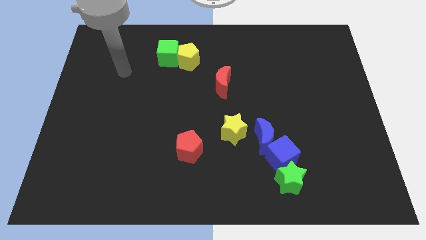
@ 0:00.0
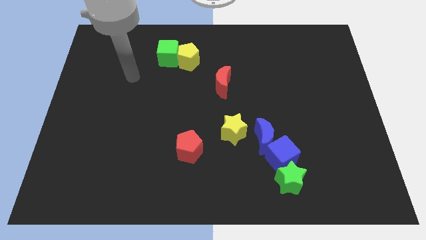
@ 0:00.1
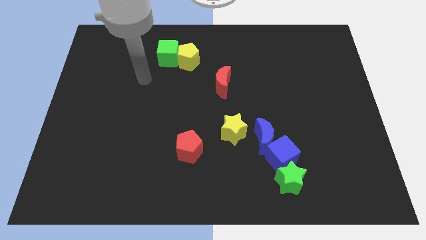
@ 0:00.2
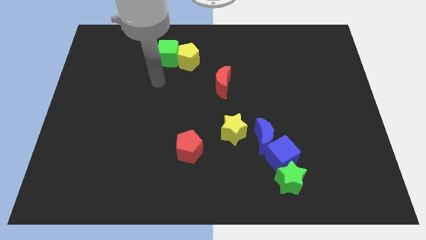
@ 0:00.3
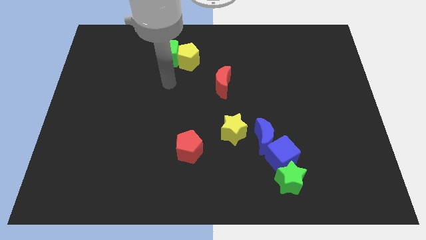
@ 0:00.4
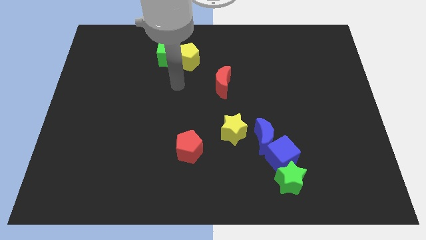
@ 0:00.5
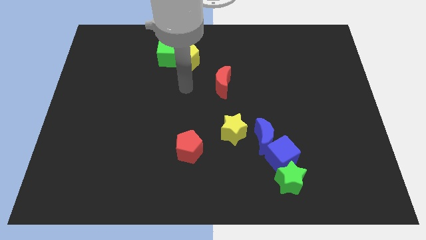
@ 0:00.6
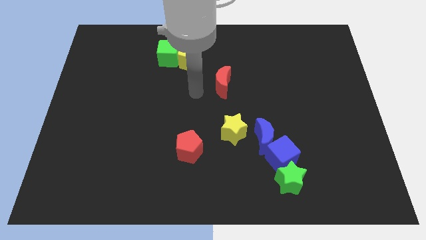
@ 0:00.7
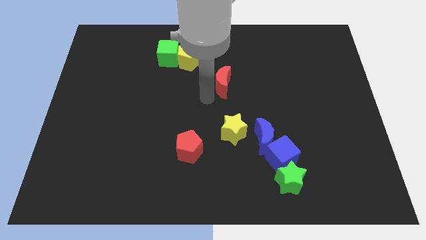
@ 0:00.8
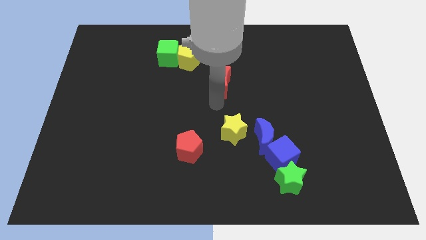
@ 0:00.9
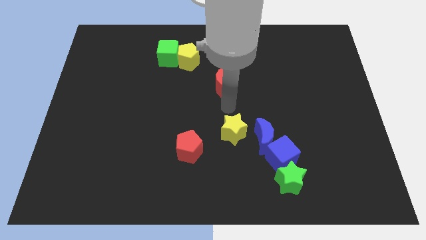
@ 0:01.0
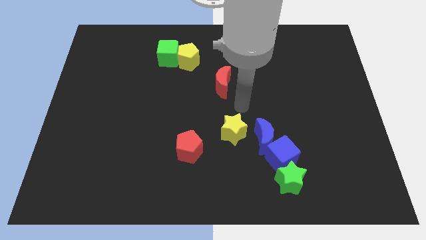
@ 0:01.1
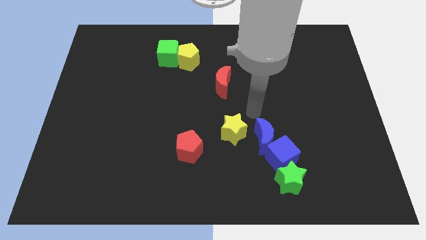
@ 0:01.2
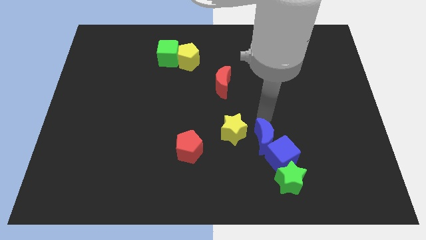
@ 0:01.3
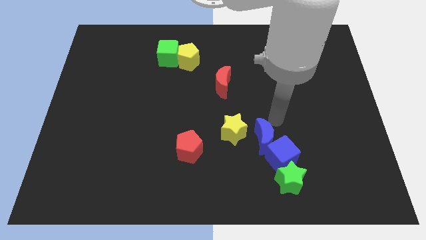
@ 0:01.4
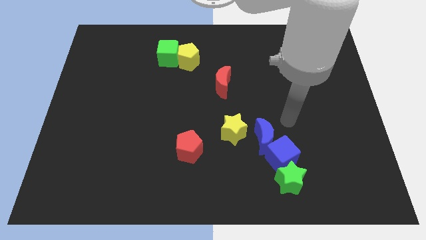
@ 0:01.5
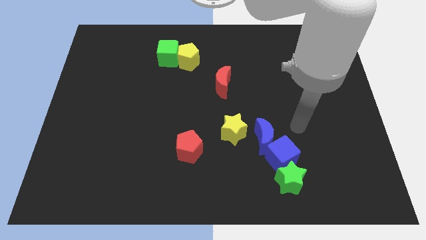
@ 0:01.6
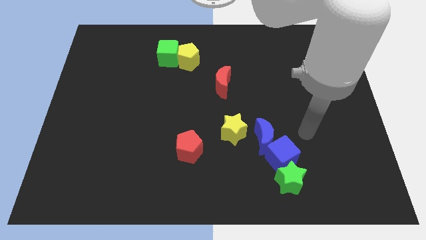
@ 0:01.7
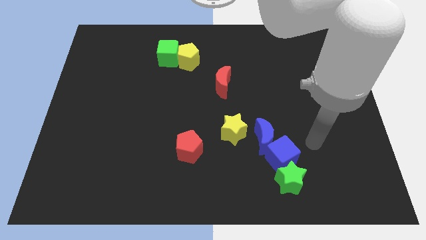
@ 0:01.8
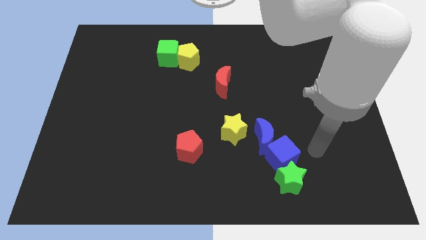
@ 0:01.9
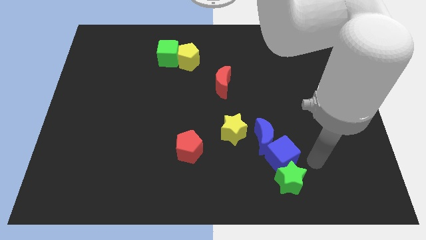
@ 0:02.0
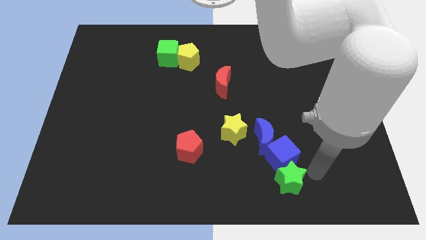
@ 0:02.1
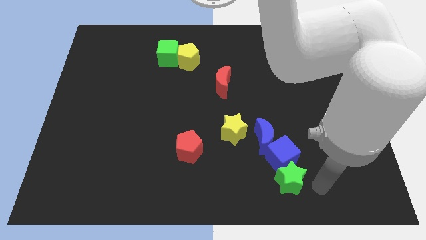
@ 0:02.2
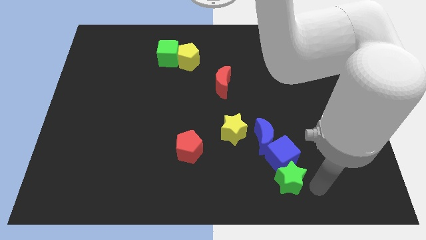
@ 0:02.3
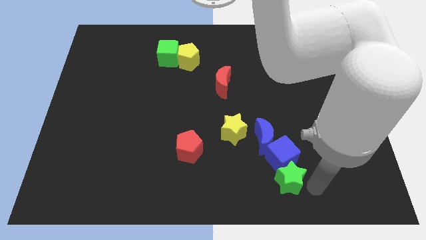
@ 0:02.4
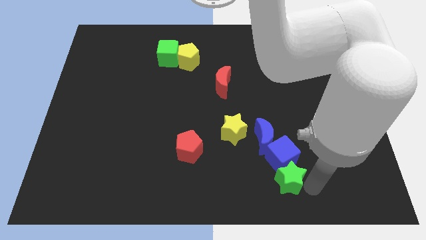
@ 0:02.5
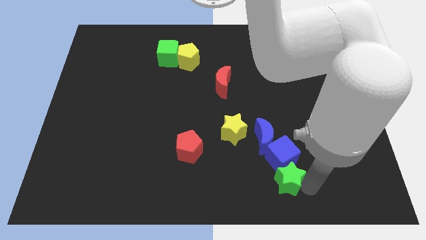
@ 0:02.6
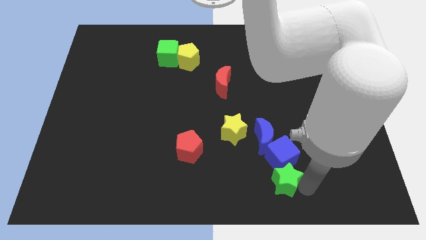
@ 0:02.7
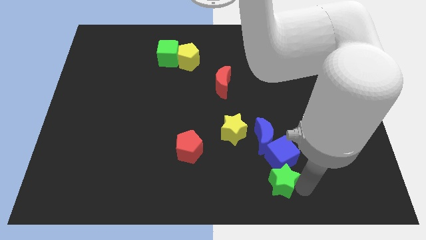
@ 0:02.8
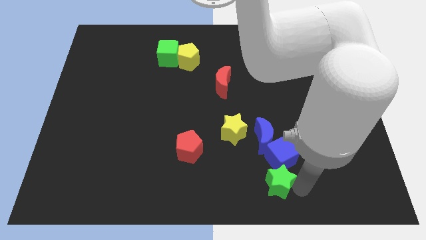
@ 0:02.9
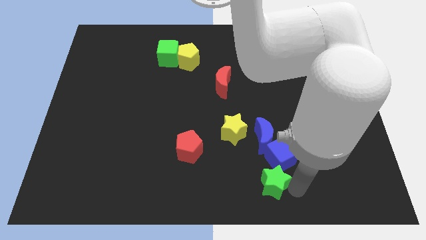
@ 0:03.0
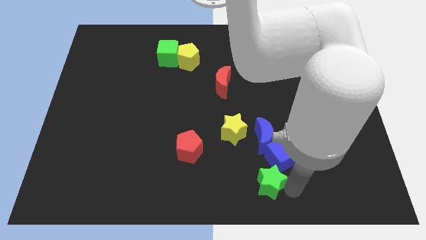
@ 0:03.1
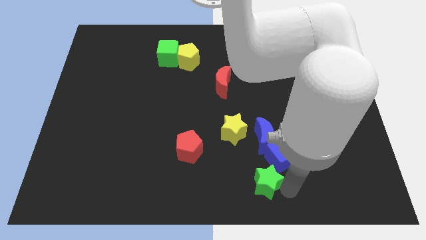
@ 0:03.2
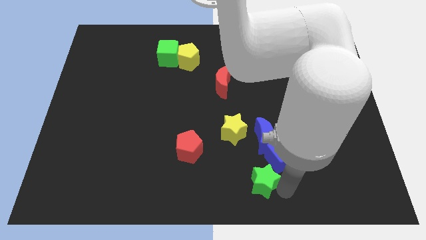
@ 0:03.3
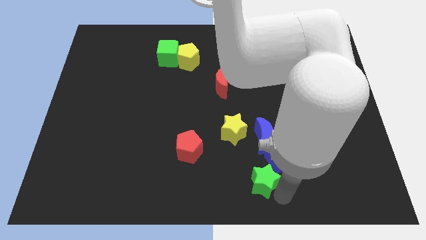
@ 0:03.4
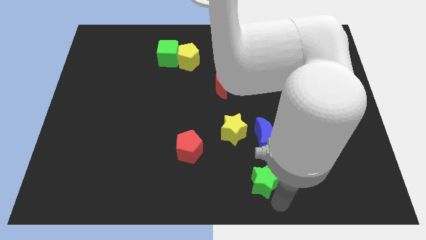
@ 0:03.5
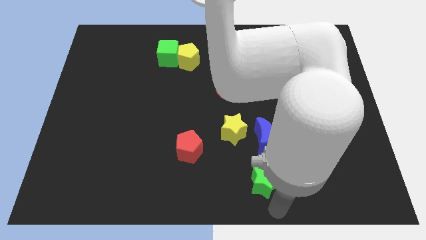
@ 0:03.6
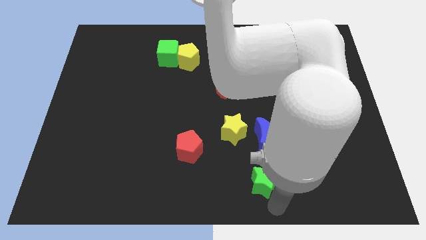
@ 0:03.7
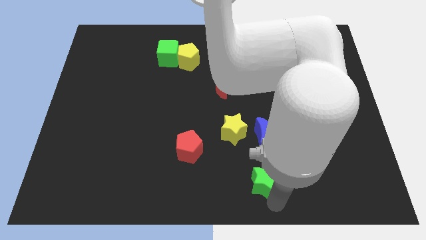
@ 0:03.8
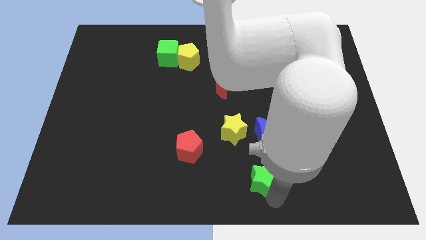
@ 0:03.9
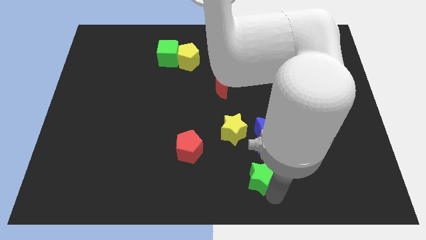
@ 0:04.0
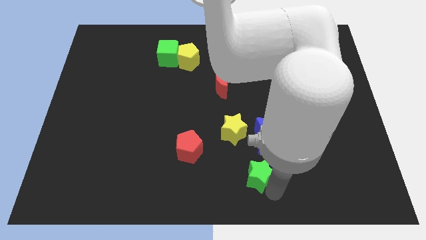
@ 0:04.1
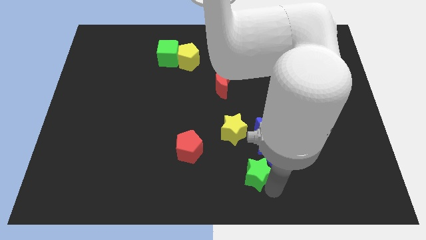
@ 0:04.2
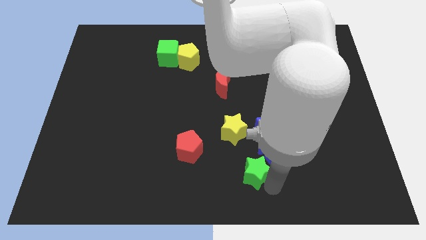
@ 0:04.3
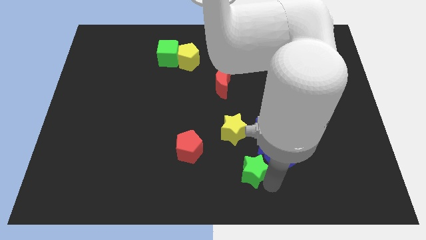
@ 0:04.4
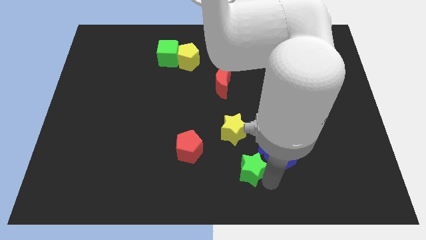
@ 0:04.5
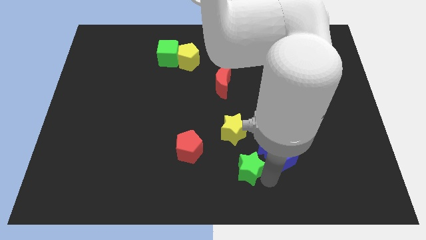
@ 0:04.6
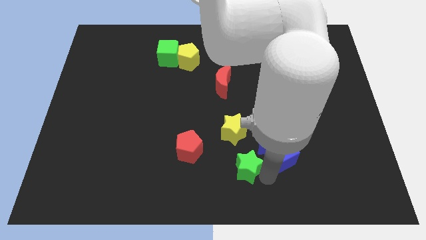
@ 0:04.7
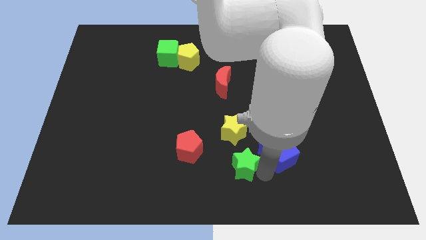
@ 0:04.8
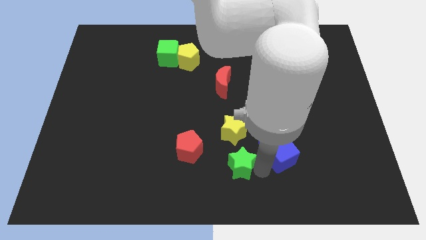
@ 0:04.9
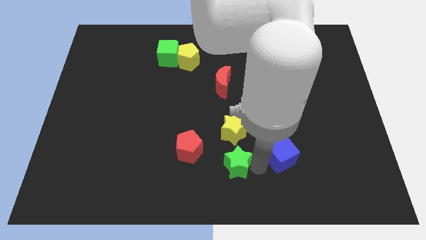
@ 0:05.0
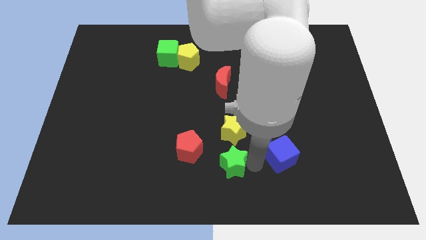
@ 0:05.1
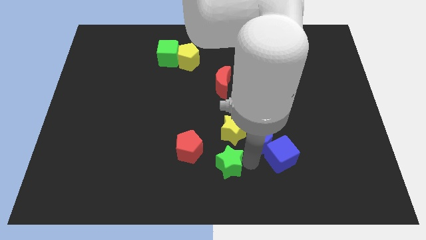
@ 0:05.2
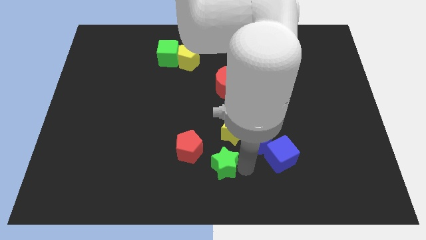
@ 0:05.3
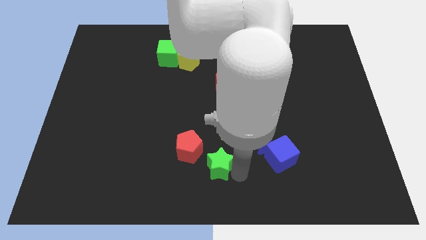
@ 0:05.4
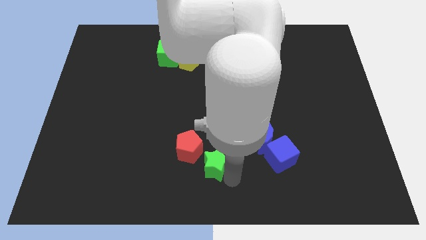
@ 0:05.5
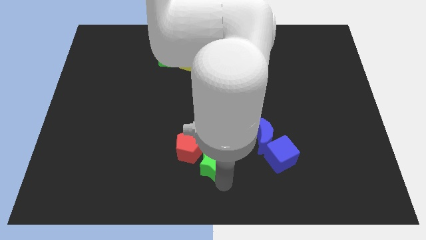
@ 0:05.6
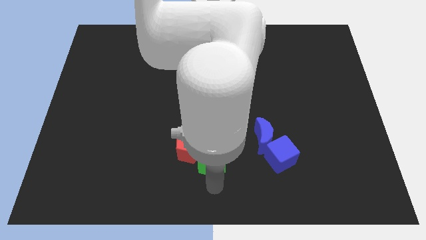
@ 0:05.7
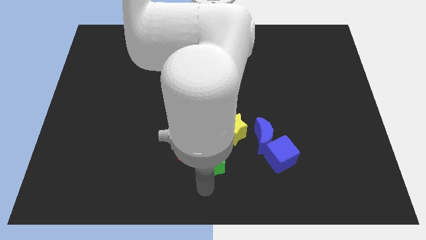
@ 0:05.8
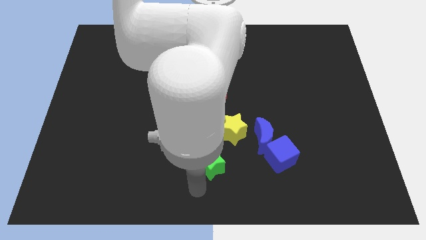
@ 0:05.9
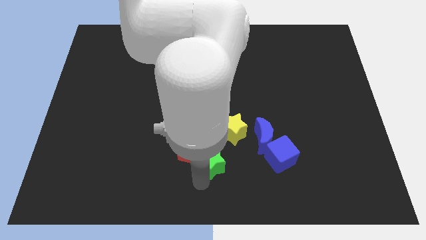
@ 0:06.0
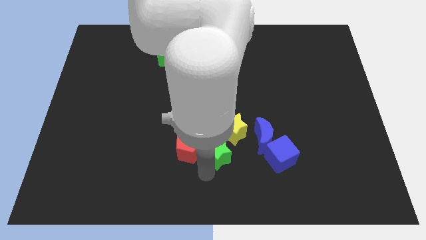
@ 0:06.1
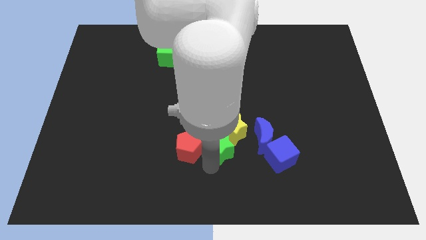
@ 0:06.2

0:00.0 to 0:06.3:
slide the green star towards the yellow star

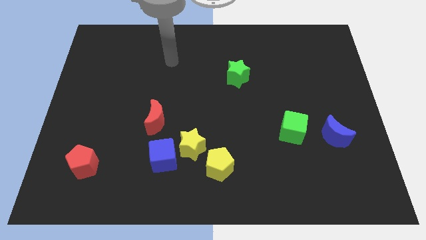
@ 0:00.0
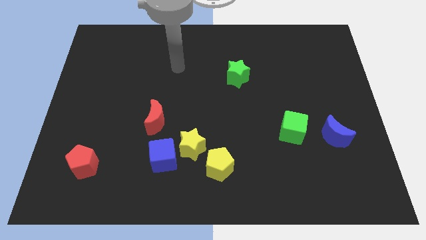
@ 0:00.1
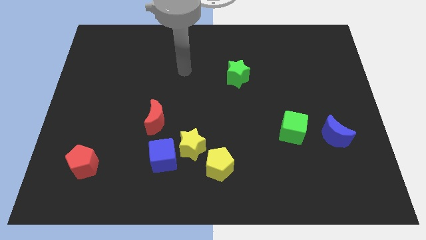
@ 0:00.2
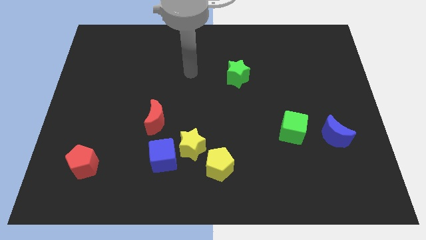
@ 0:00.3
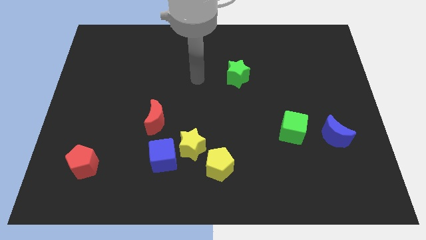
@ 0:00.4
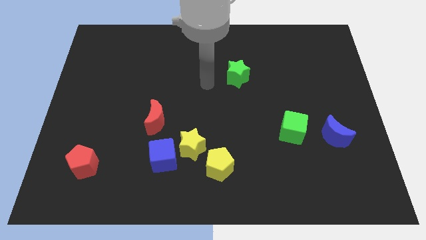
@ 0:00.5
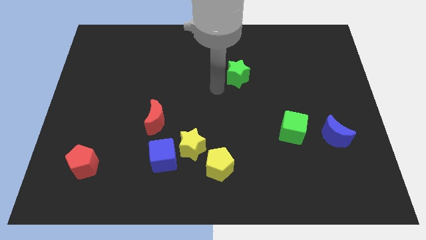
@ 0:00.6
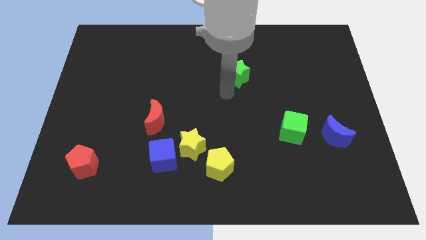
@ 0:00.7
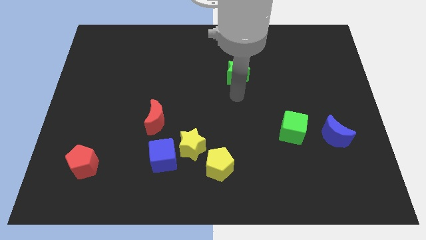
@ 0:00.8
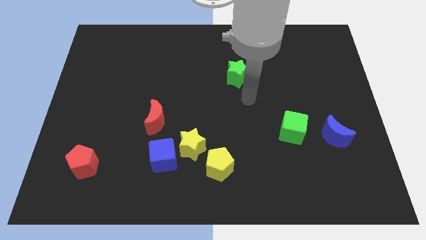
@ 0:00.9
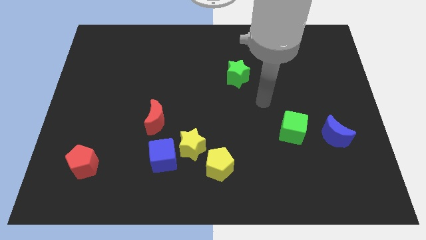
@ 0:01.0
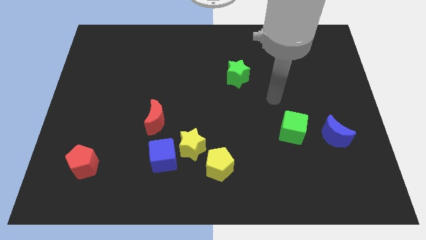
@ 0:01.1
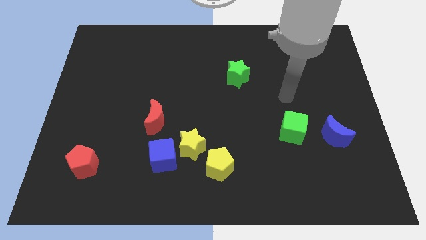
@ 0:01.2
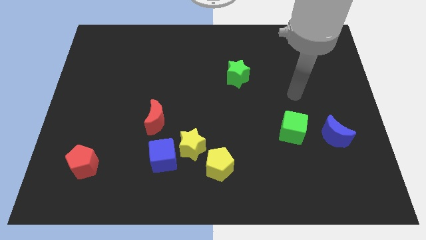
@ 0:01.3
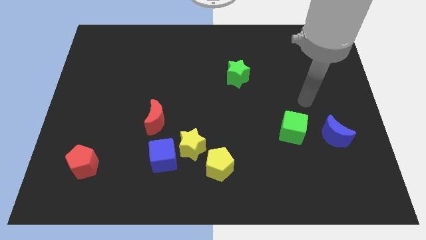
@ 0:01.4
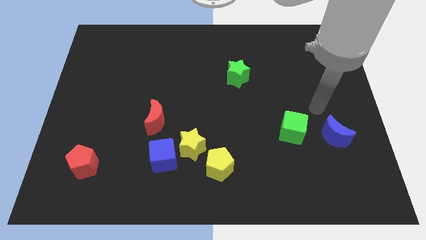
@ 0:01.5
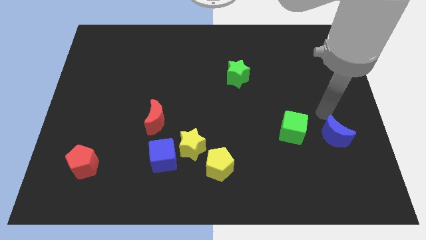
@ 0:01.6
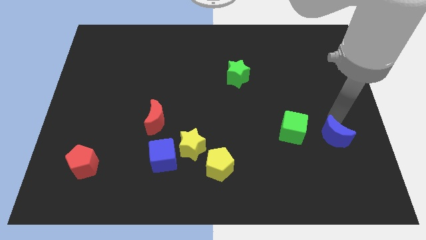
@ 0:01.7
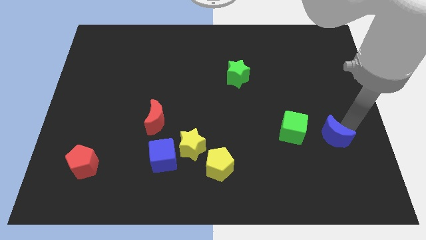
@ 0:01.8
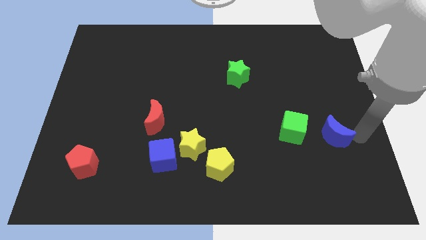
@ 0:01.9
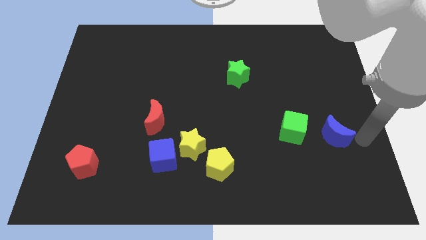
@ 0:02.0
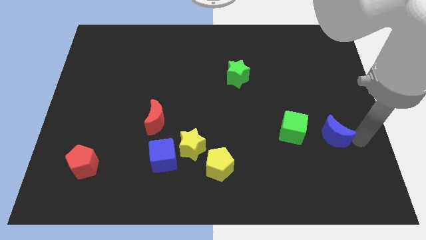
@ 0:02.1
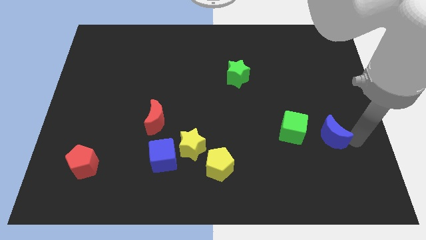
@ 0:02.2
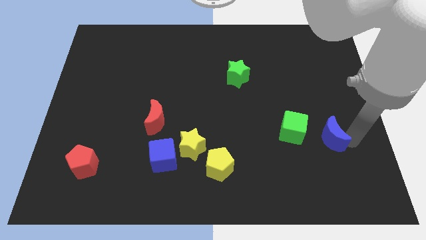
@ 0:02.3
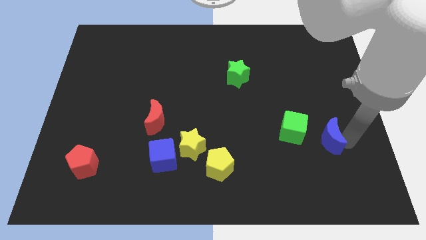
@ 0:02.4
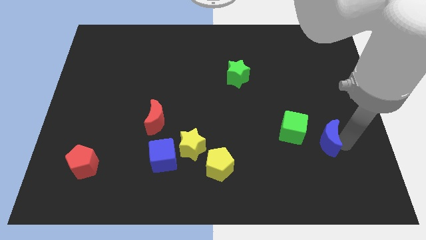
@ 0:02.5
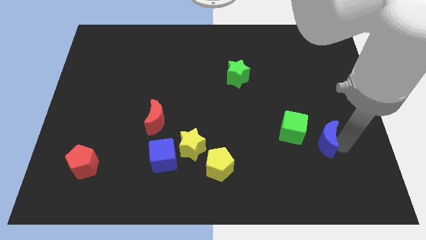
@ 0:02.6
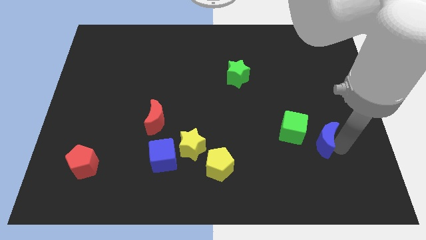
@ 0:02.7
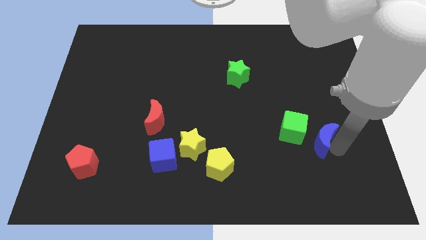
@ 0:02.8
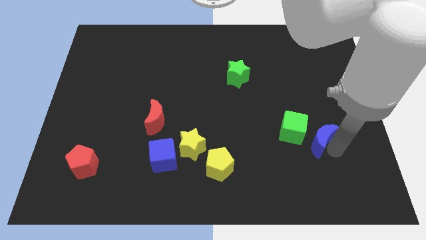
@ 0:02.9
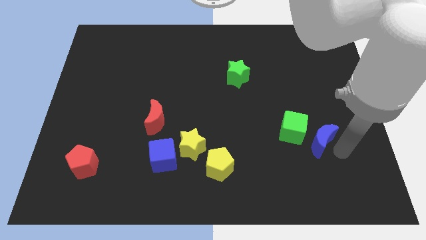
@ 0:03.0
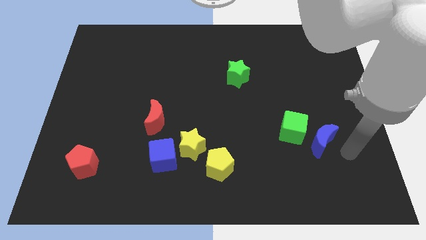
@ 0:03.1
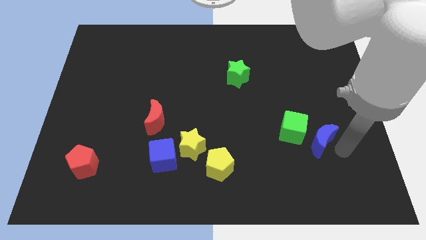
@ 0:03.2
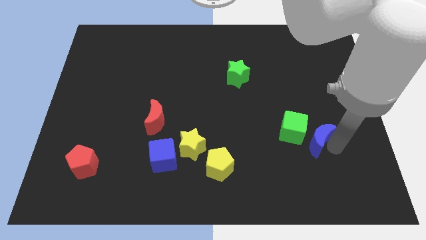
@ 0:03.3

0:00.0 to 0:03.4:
slide the blue moon close to the green cube
